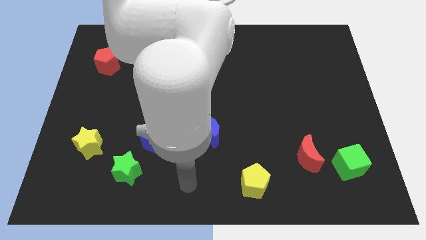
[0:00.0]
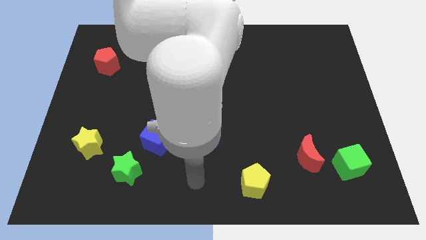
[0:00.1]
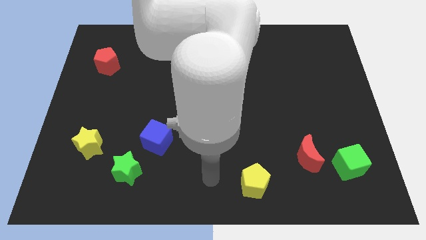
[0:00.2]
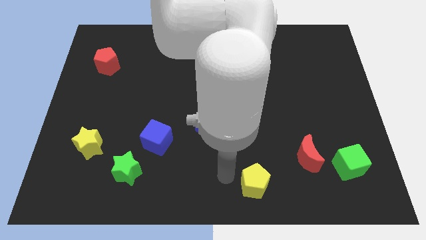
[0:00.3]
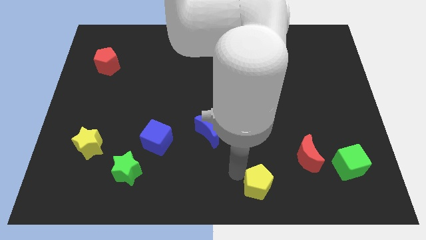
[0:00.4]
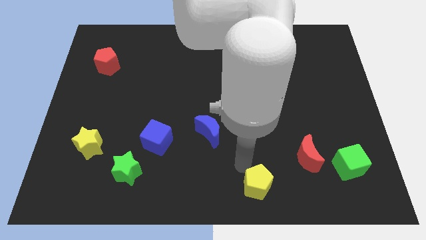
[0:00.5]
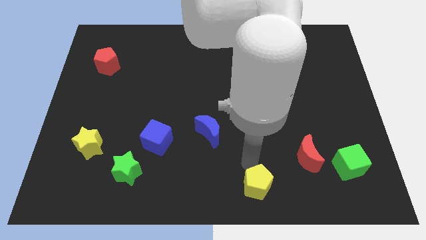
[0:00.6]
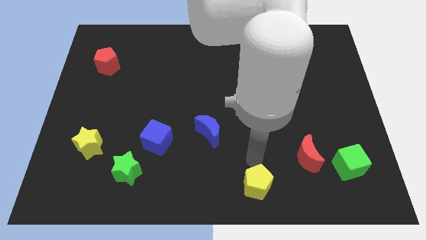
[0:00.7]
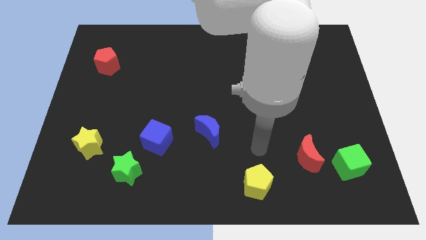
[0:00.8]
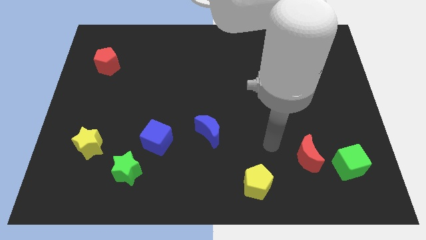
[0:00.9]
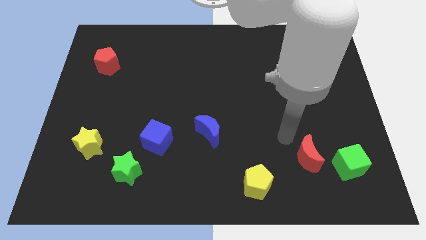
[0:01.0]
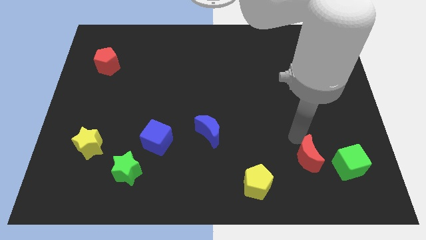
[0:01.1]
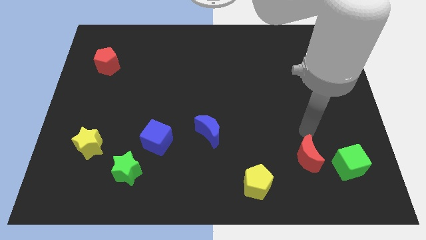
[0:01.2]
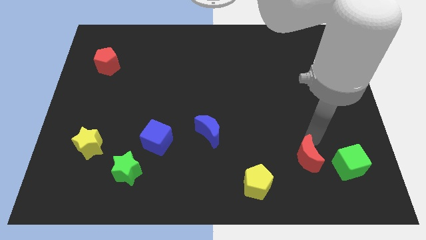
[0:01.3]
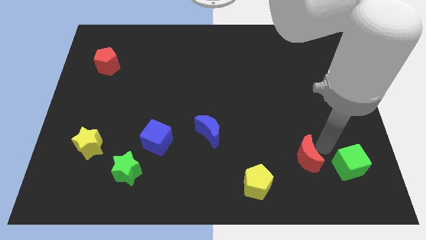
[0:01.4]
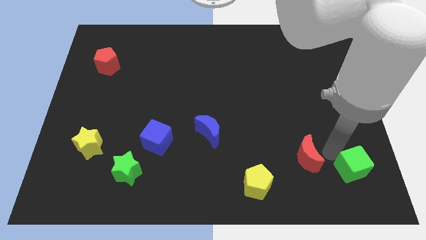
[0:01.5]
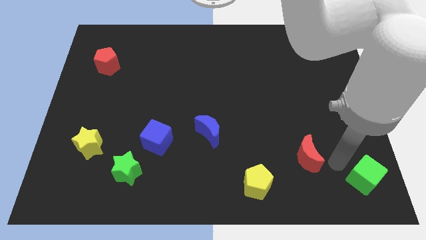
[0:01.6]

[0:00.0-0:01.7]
move the red moon away from the green cube

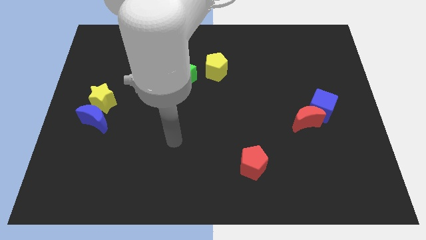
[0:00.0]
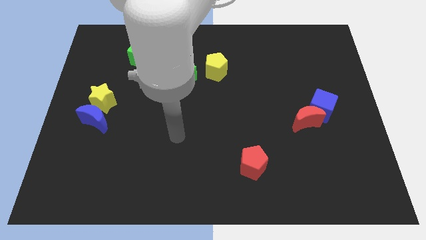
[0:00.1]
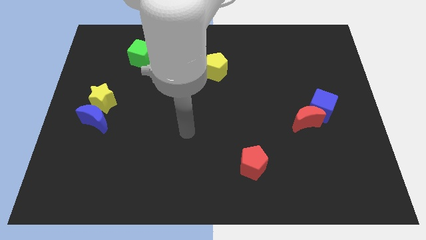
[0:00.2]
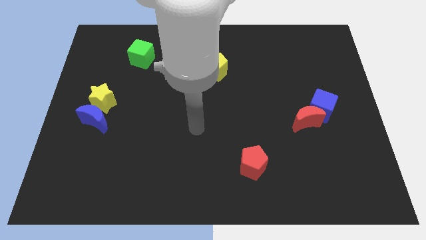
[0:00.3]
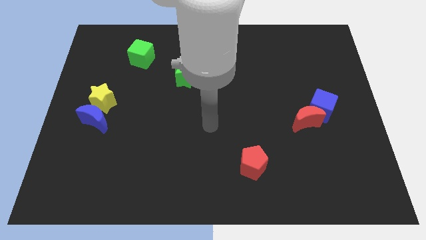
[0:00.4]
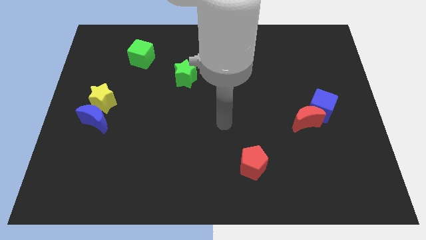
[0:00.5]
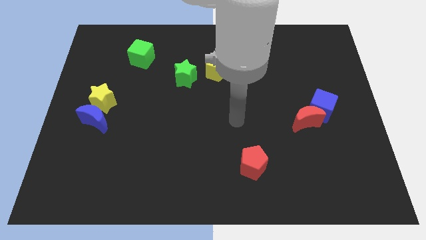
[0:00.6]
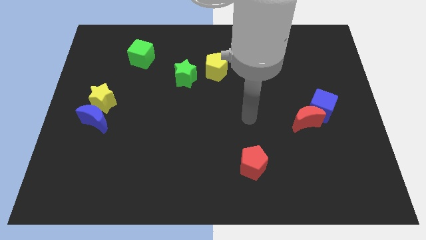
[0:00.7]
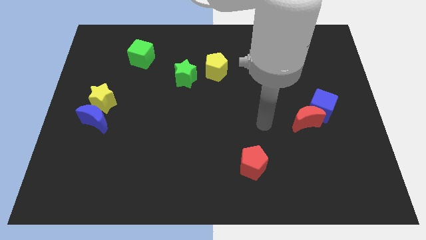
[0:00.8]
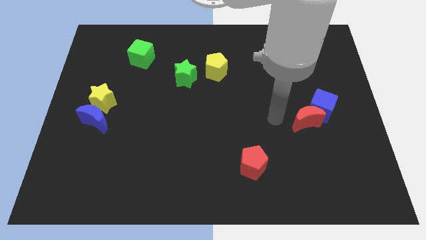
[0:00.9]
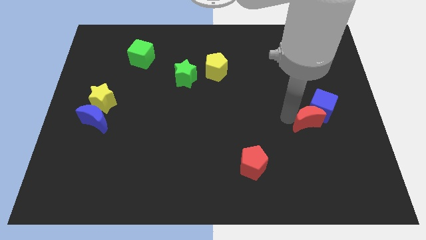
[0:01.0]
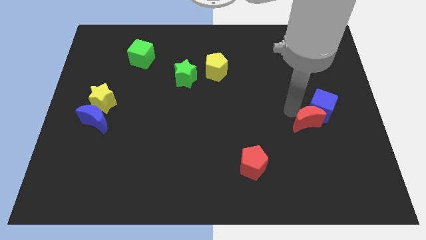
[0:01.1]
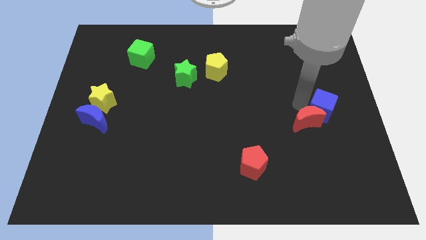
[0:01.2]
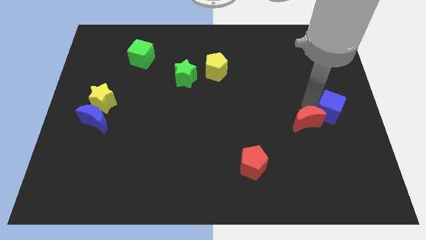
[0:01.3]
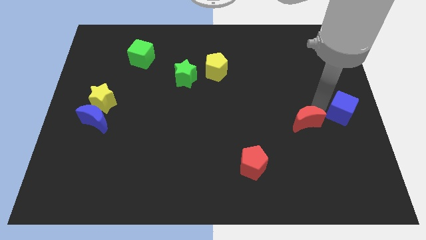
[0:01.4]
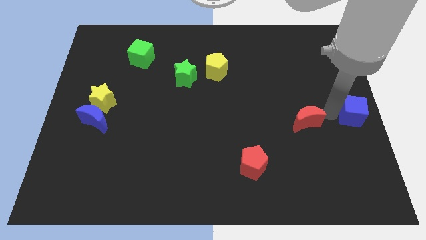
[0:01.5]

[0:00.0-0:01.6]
move the red moon away from the blue cube

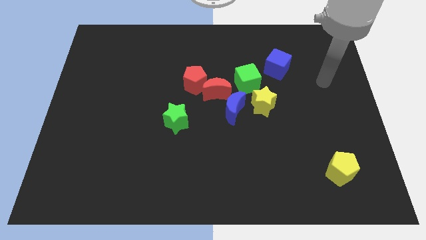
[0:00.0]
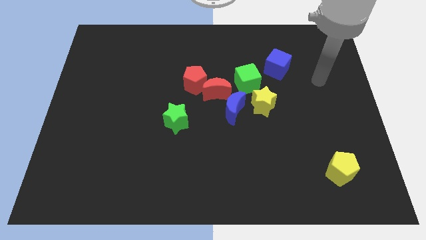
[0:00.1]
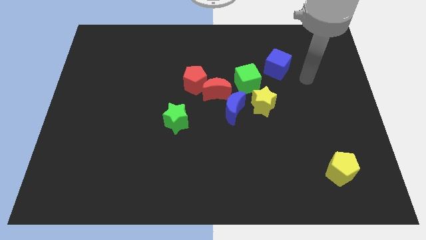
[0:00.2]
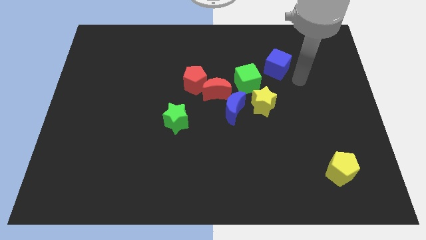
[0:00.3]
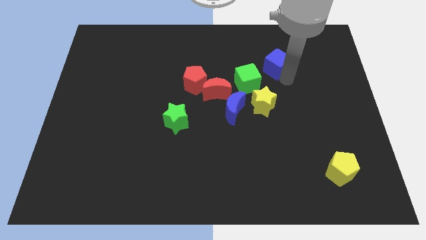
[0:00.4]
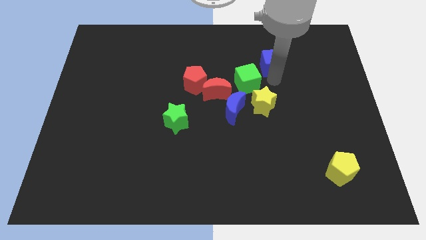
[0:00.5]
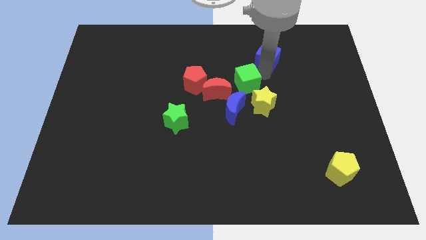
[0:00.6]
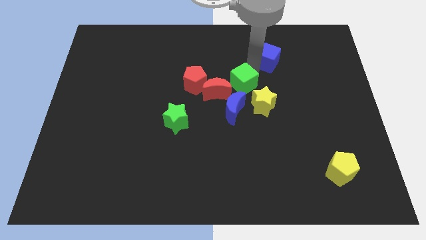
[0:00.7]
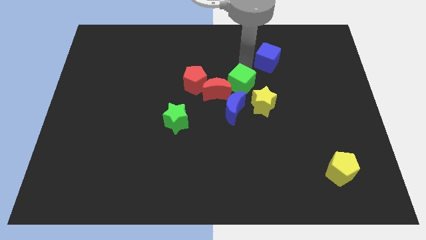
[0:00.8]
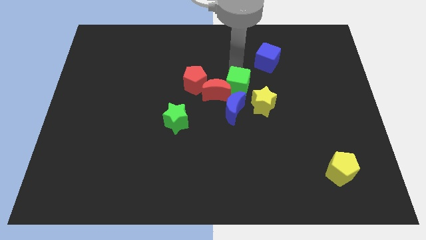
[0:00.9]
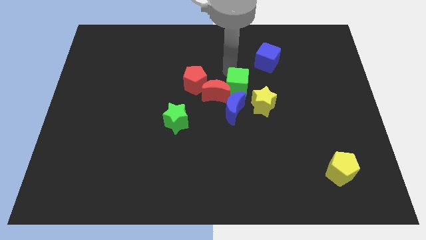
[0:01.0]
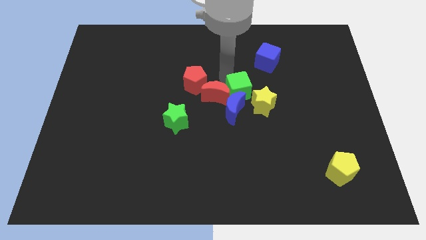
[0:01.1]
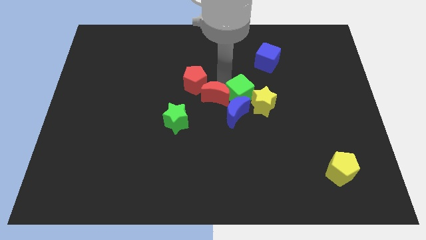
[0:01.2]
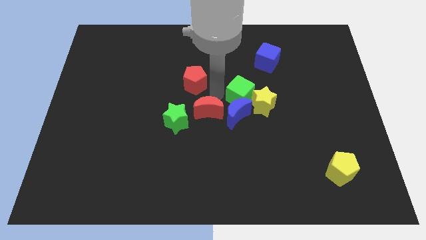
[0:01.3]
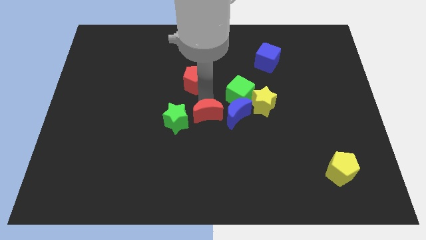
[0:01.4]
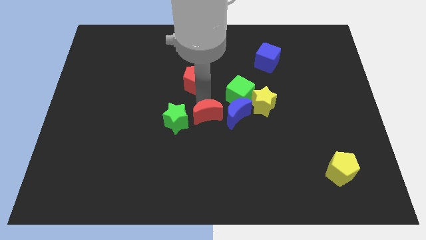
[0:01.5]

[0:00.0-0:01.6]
separate the red pentagon from the red moon

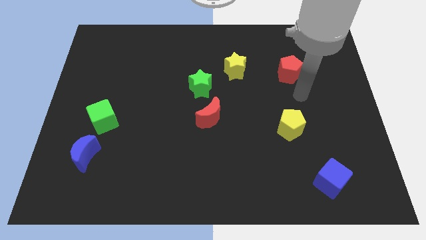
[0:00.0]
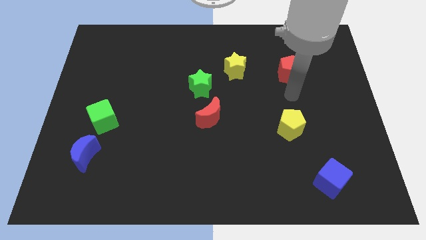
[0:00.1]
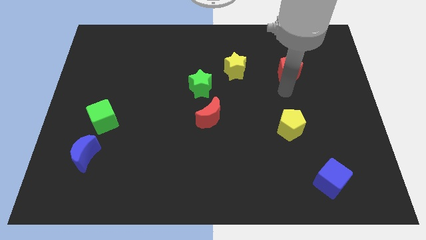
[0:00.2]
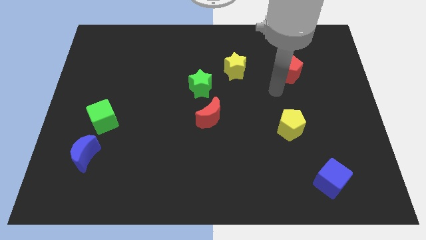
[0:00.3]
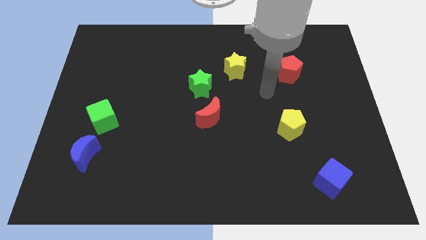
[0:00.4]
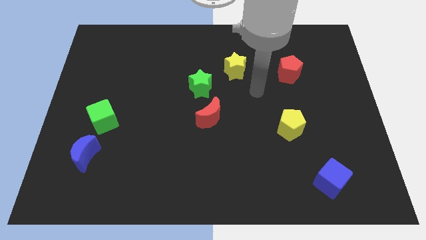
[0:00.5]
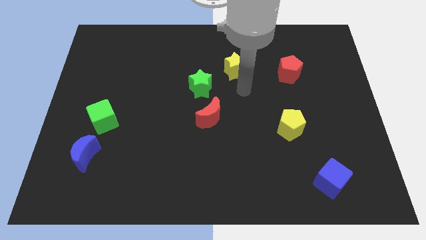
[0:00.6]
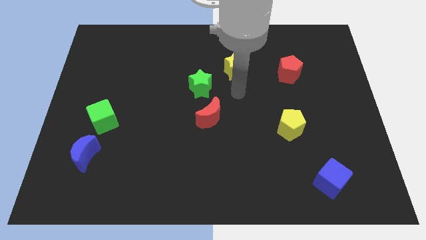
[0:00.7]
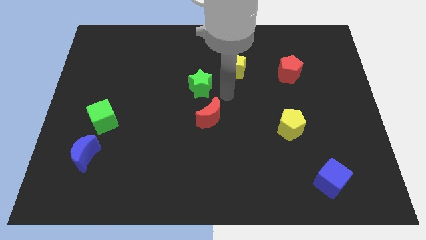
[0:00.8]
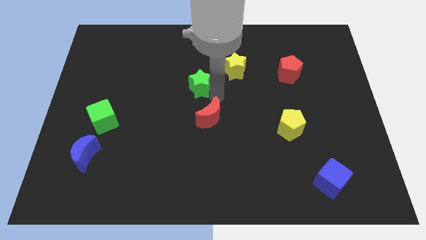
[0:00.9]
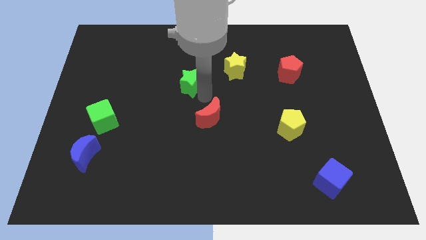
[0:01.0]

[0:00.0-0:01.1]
move the red moon away from the green star

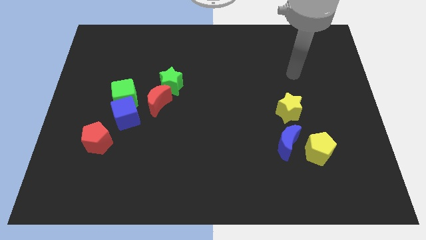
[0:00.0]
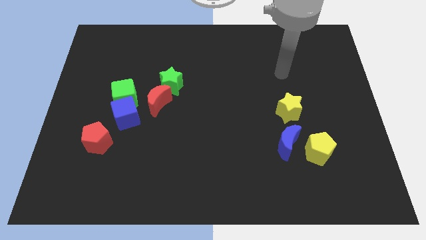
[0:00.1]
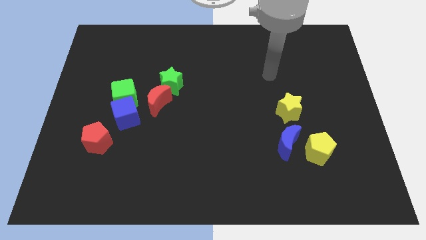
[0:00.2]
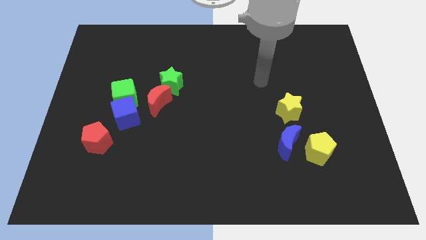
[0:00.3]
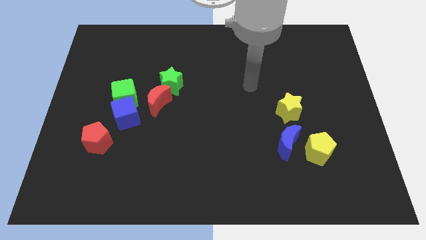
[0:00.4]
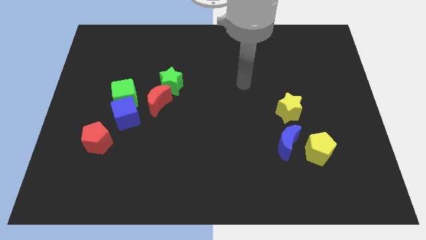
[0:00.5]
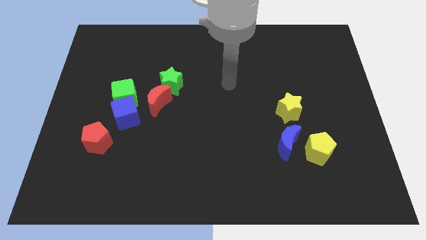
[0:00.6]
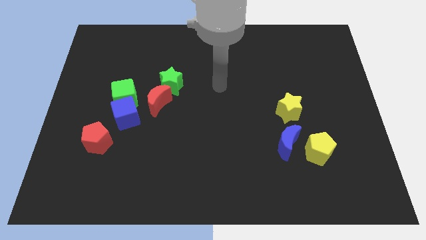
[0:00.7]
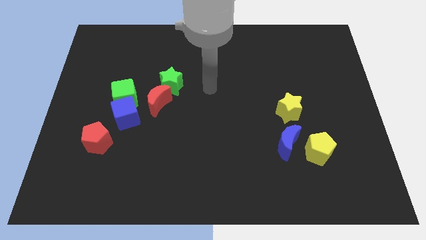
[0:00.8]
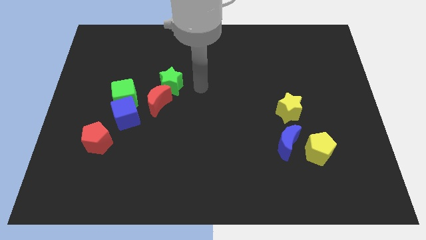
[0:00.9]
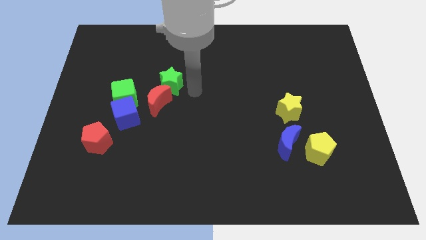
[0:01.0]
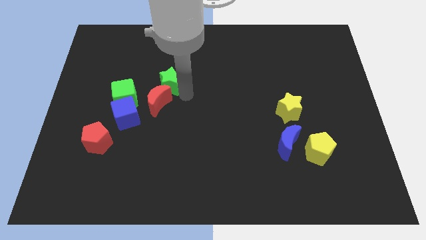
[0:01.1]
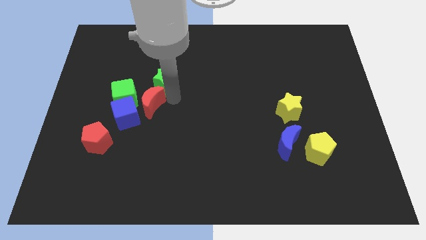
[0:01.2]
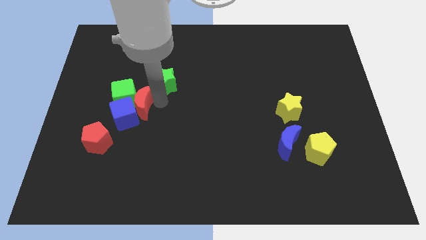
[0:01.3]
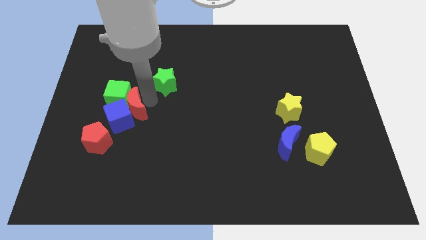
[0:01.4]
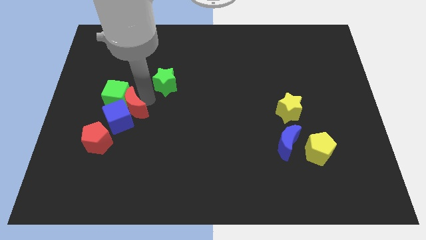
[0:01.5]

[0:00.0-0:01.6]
pull the green star apart from the red moon

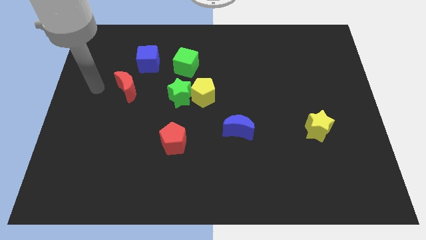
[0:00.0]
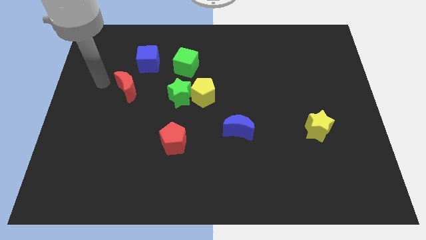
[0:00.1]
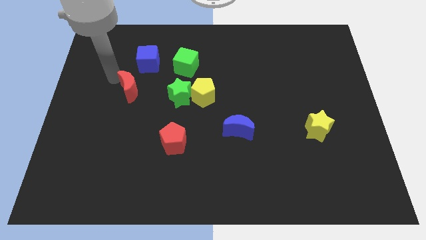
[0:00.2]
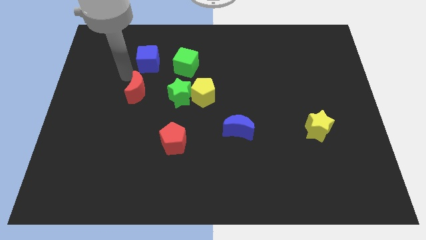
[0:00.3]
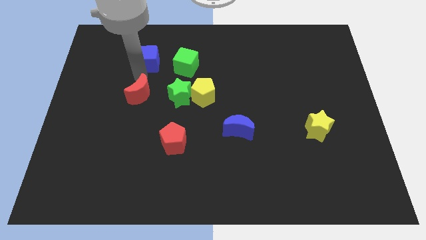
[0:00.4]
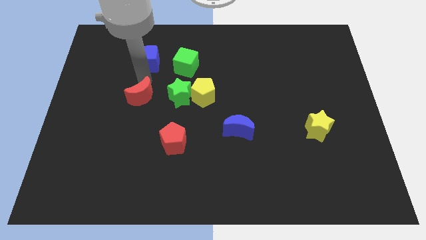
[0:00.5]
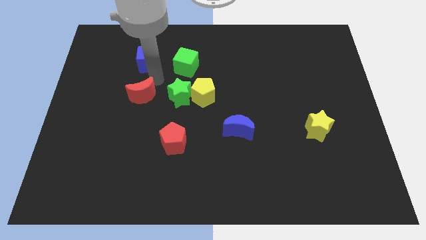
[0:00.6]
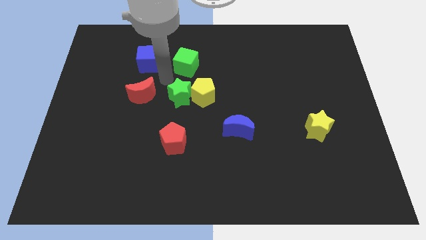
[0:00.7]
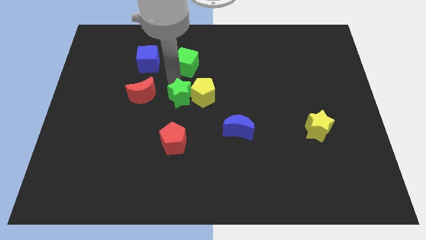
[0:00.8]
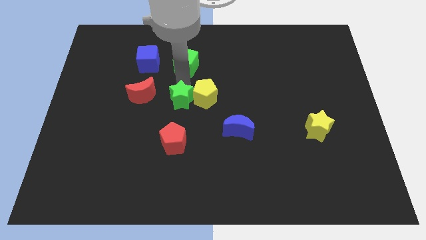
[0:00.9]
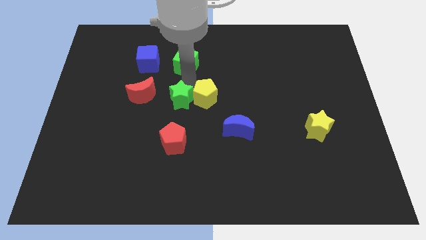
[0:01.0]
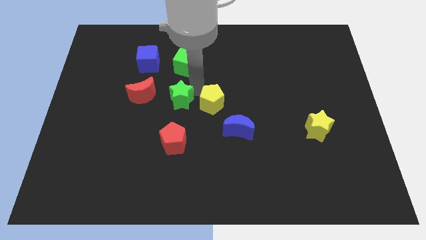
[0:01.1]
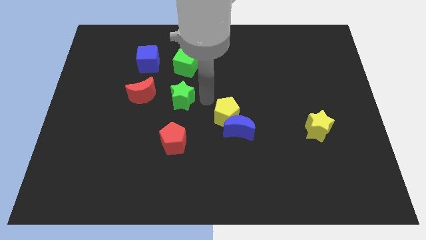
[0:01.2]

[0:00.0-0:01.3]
separate the green star from the yellow pentagon

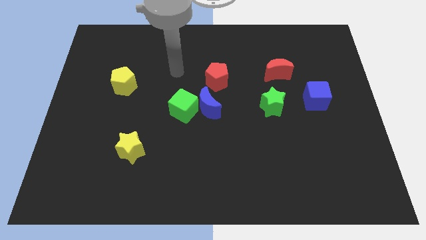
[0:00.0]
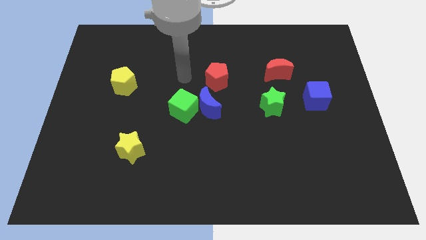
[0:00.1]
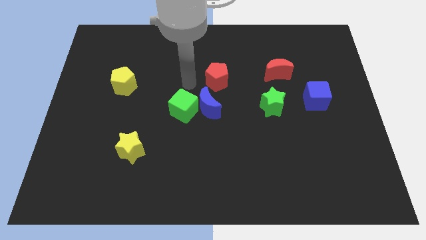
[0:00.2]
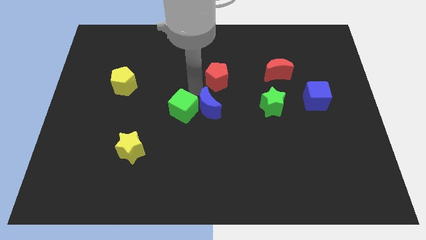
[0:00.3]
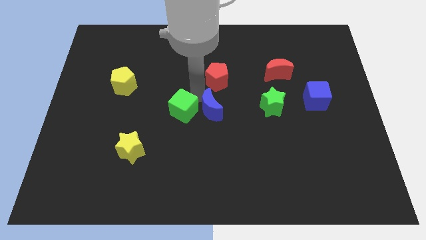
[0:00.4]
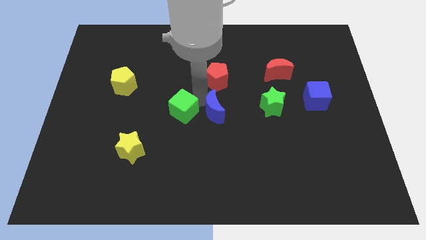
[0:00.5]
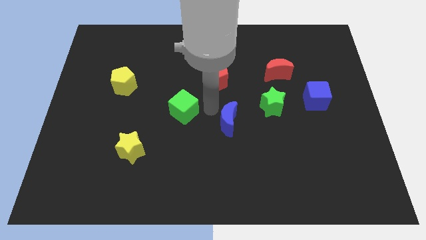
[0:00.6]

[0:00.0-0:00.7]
pull the green cube apart from the blue moon
